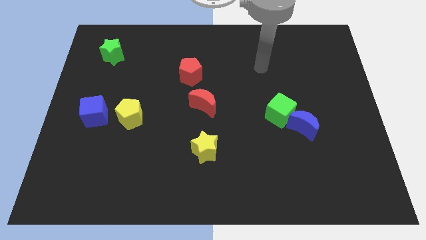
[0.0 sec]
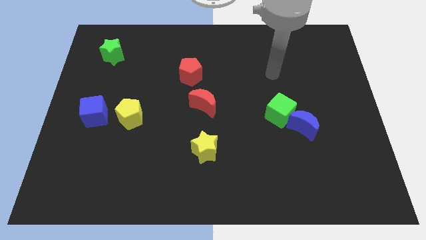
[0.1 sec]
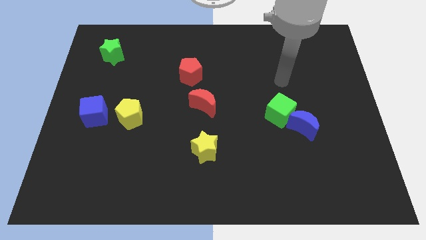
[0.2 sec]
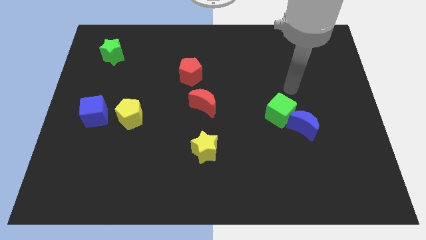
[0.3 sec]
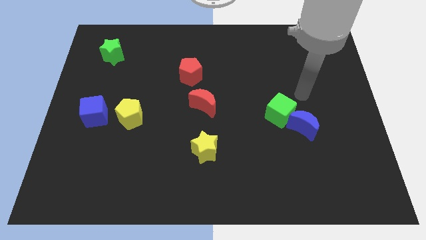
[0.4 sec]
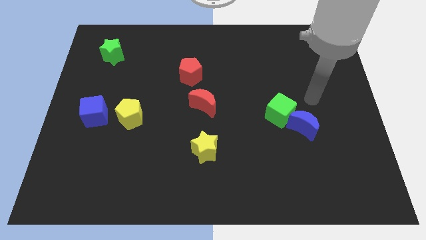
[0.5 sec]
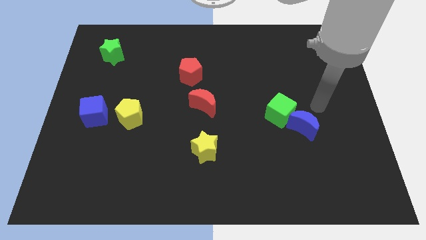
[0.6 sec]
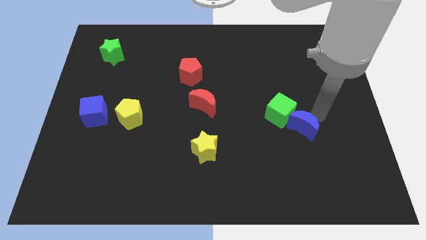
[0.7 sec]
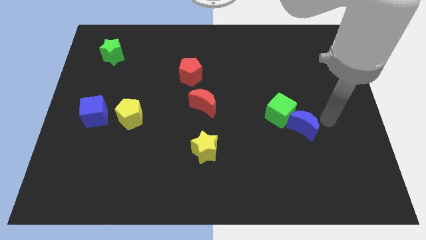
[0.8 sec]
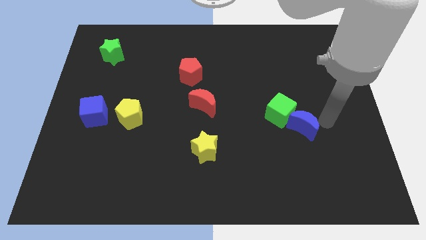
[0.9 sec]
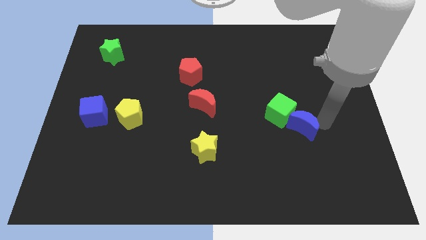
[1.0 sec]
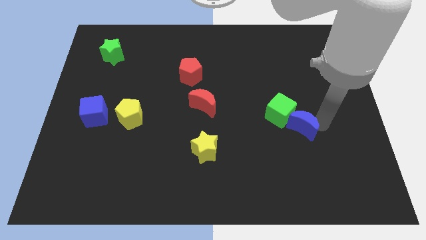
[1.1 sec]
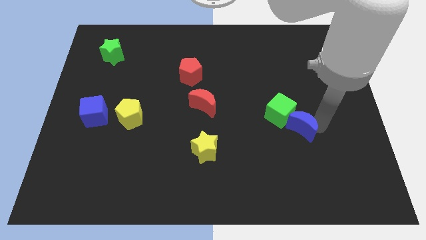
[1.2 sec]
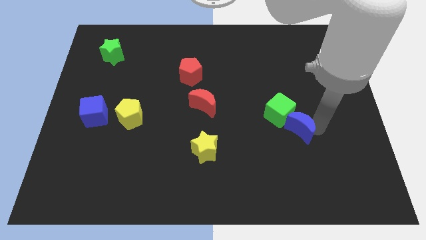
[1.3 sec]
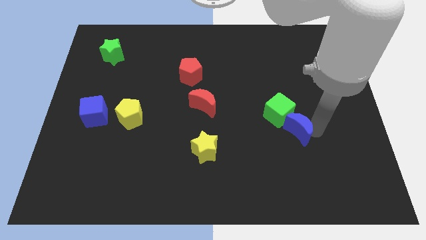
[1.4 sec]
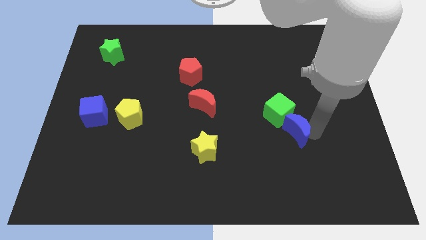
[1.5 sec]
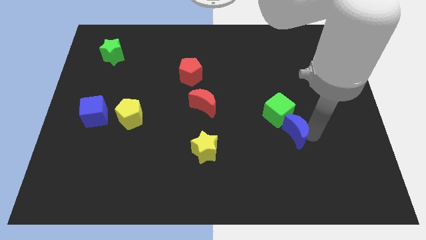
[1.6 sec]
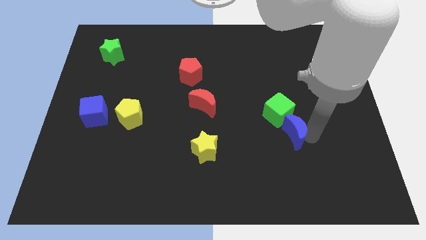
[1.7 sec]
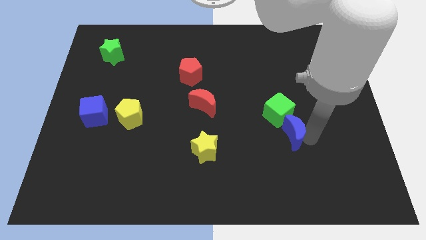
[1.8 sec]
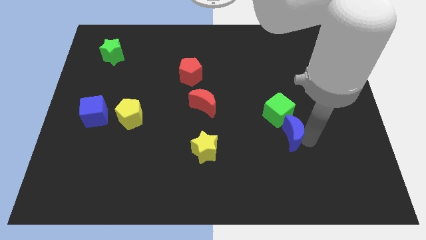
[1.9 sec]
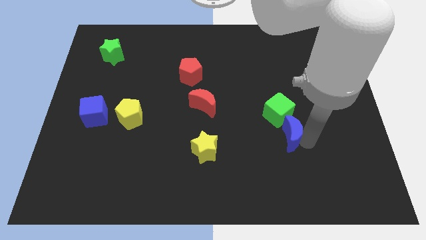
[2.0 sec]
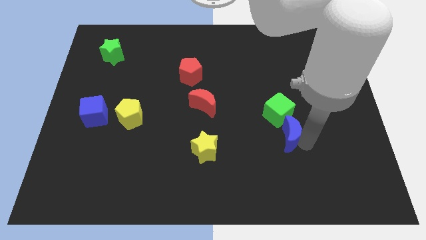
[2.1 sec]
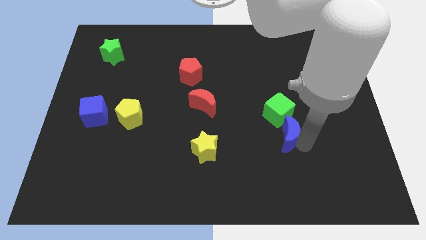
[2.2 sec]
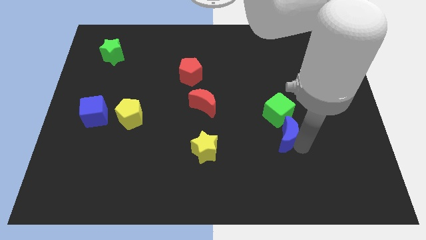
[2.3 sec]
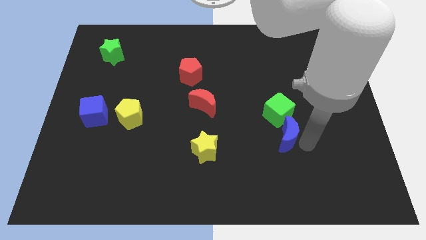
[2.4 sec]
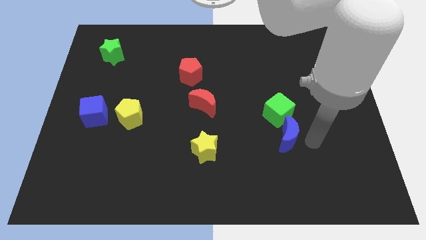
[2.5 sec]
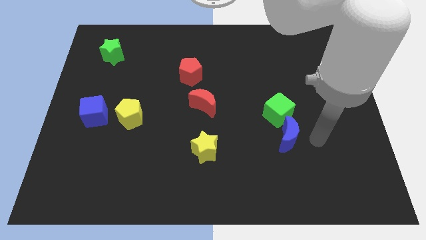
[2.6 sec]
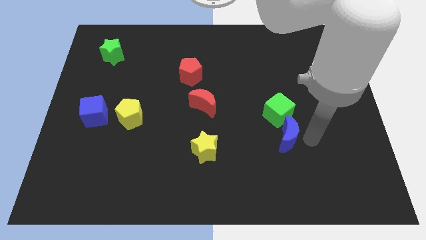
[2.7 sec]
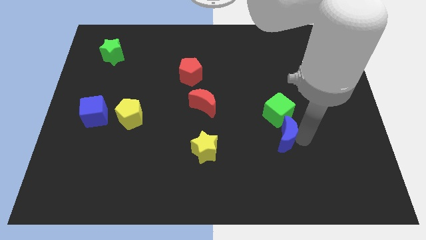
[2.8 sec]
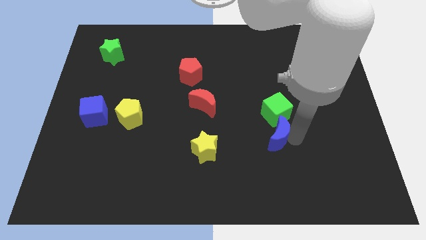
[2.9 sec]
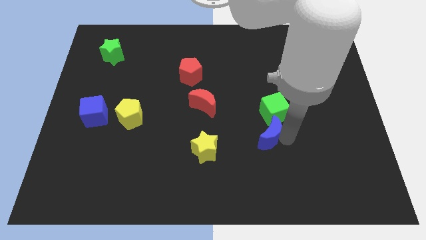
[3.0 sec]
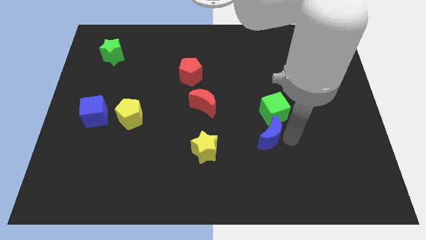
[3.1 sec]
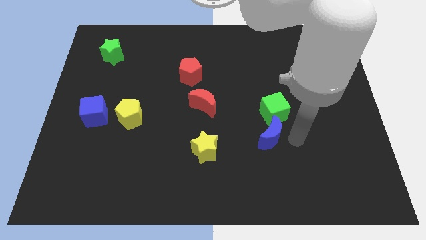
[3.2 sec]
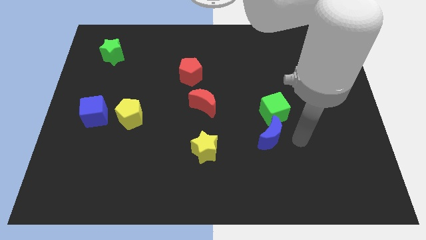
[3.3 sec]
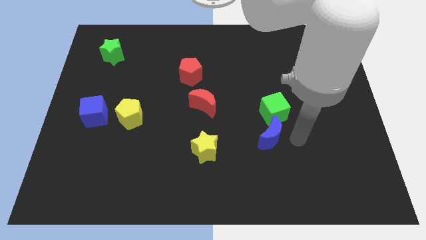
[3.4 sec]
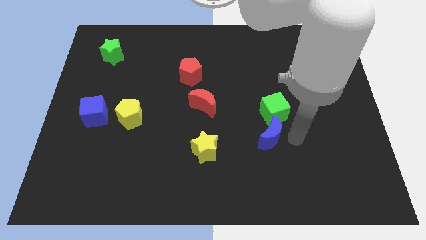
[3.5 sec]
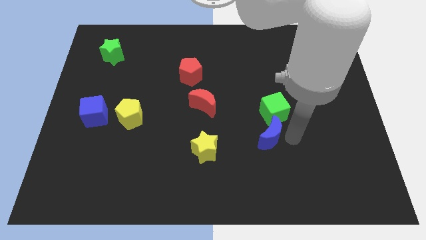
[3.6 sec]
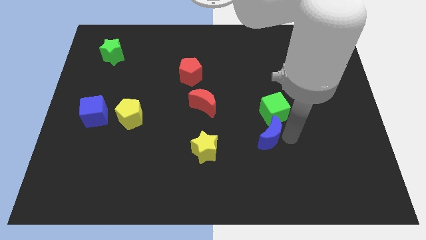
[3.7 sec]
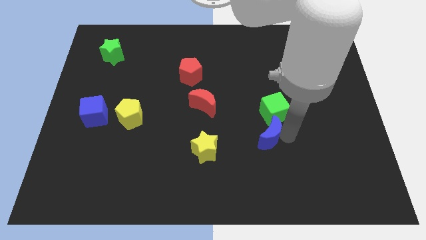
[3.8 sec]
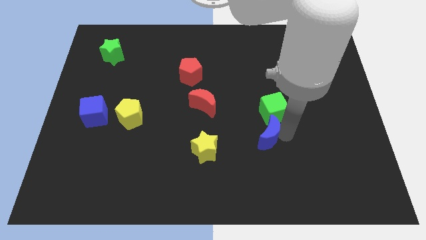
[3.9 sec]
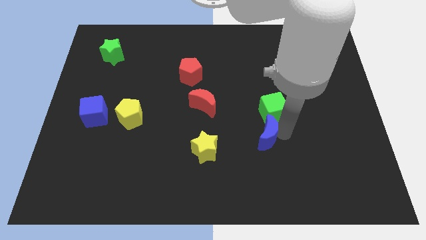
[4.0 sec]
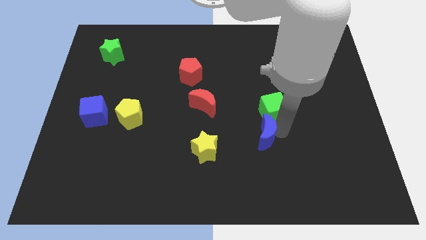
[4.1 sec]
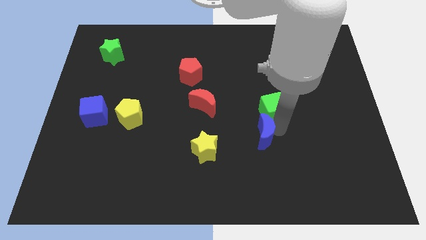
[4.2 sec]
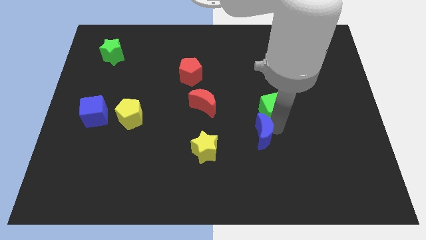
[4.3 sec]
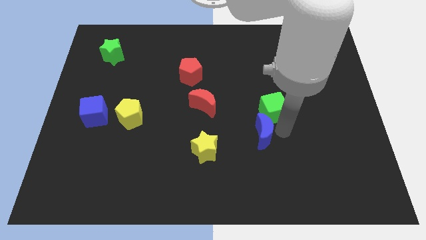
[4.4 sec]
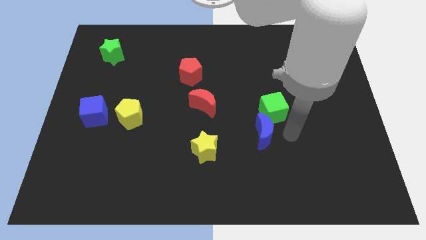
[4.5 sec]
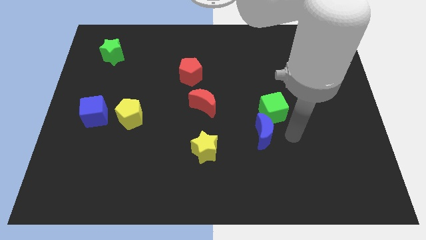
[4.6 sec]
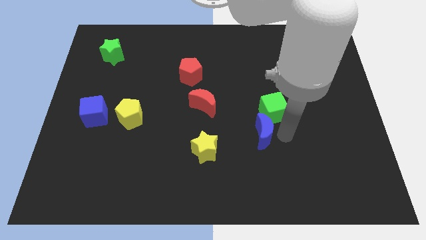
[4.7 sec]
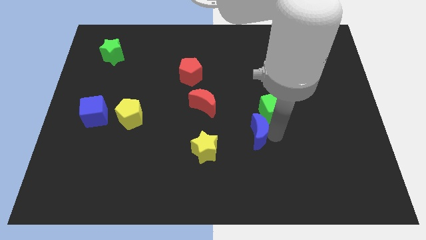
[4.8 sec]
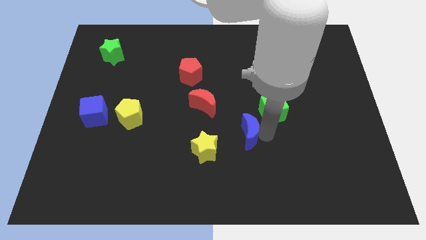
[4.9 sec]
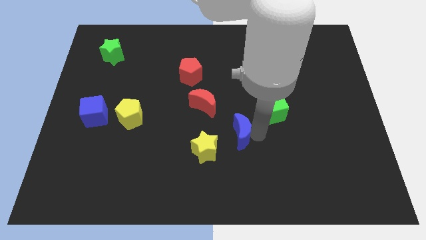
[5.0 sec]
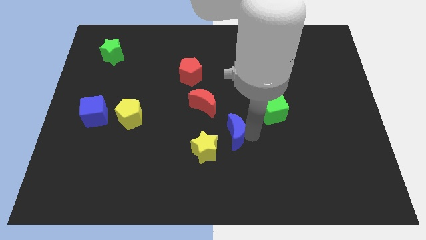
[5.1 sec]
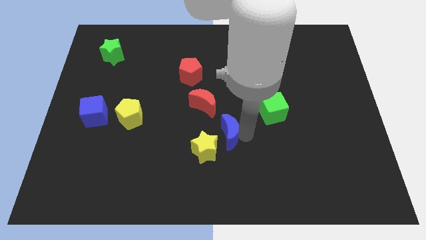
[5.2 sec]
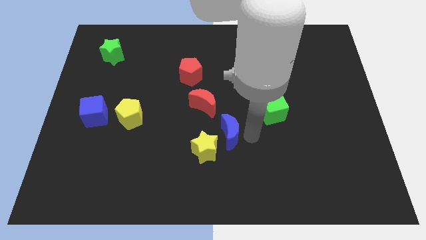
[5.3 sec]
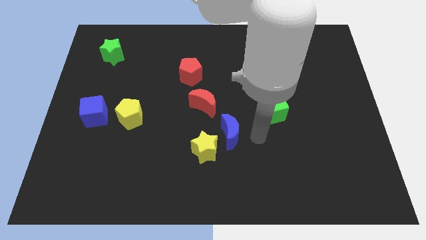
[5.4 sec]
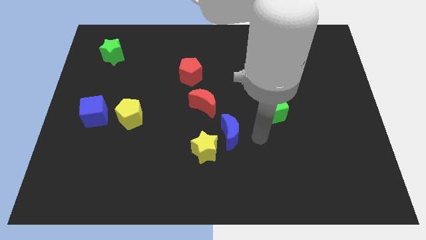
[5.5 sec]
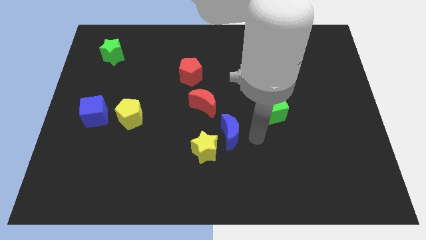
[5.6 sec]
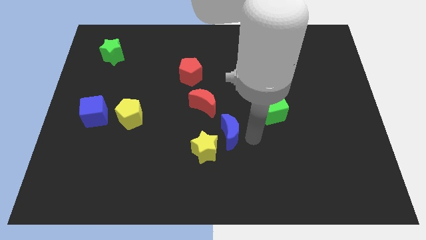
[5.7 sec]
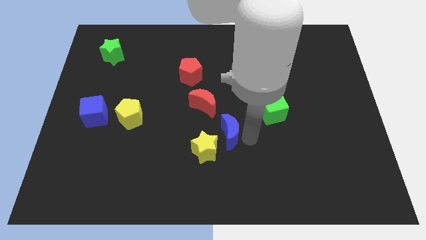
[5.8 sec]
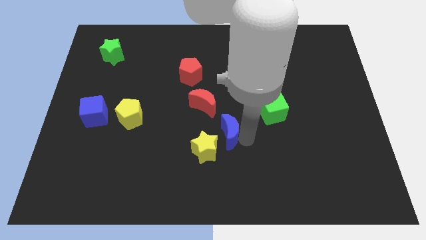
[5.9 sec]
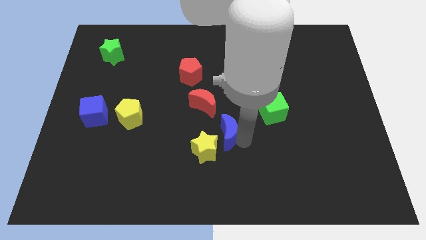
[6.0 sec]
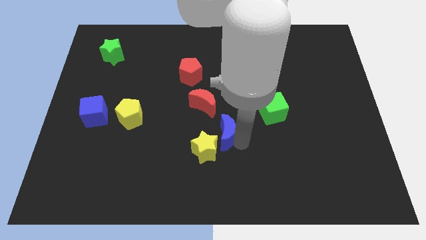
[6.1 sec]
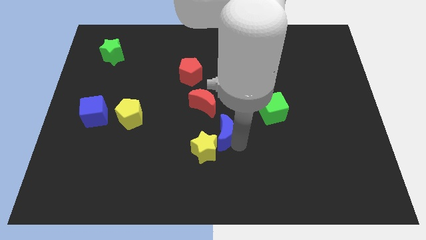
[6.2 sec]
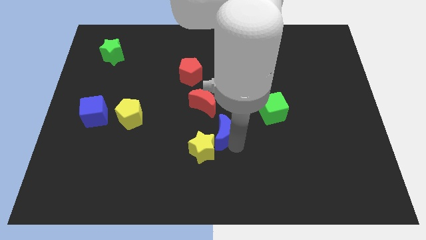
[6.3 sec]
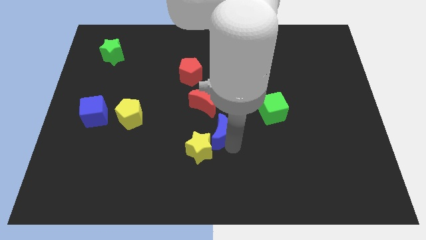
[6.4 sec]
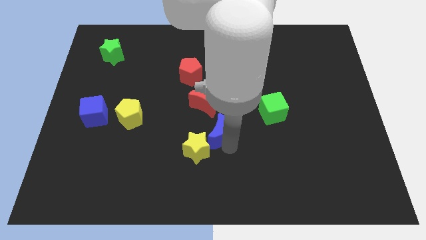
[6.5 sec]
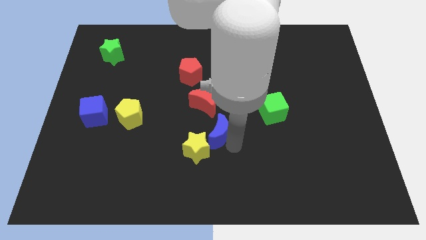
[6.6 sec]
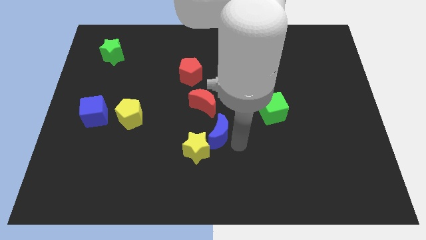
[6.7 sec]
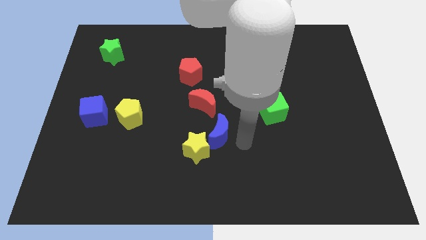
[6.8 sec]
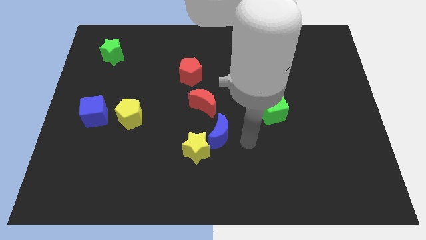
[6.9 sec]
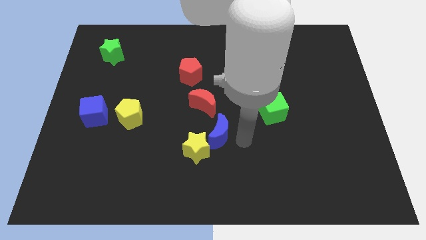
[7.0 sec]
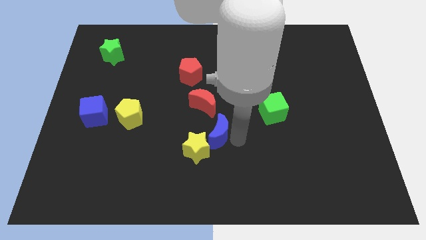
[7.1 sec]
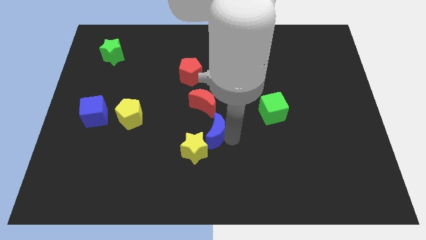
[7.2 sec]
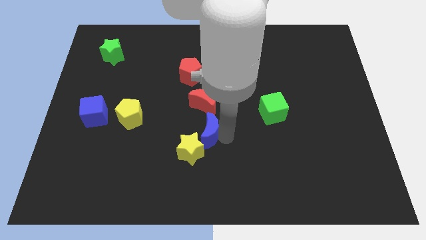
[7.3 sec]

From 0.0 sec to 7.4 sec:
push the blue moon left

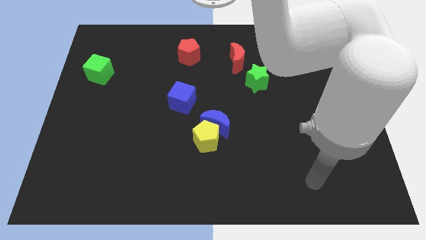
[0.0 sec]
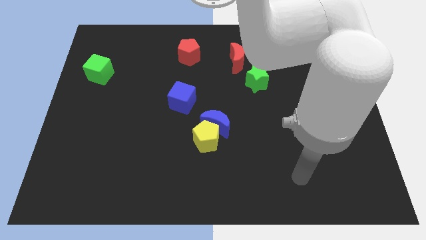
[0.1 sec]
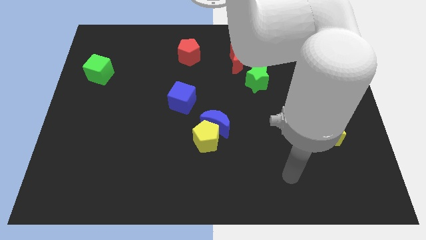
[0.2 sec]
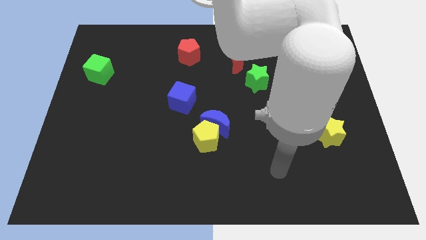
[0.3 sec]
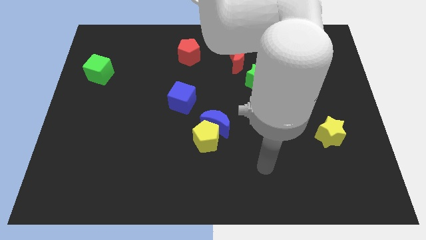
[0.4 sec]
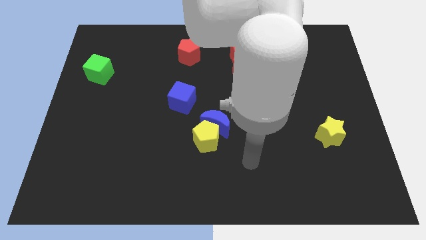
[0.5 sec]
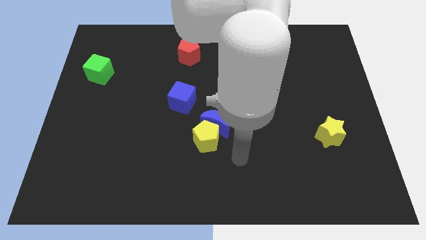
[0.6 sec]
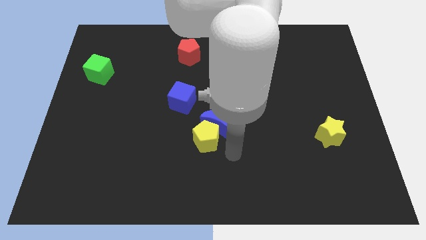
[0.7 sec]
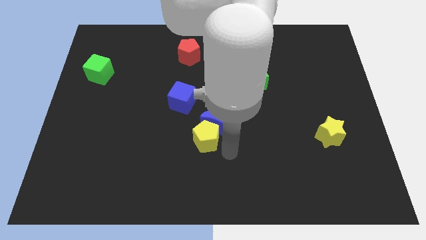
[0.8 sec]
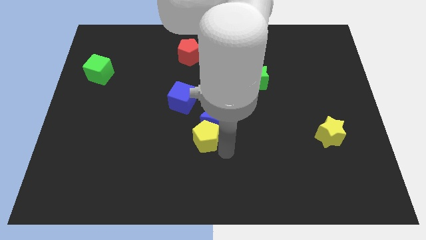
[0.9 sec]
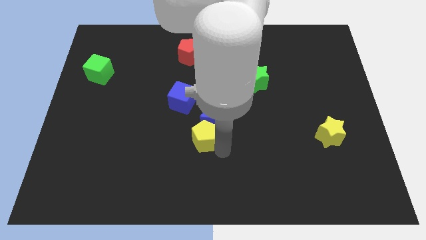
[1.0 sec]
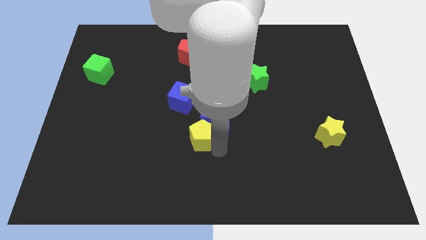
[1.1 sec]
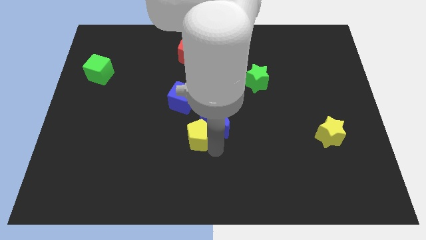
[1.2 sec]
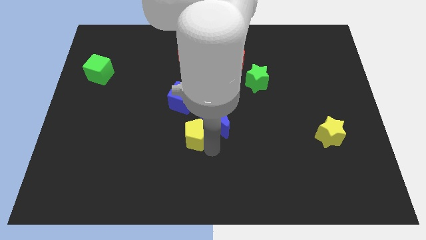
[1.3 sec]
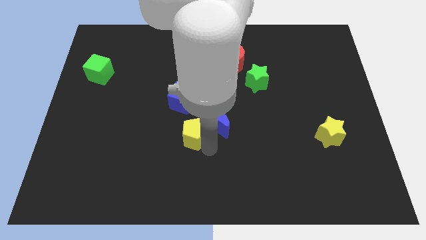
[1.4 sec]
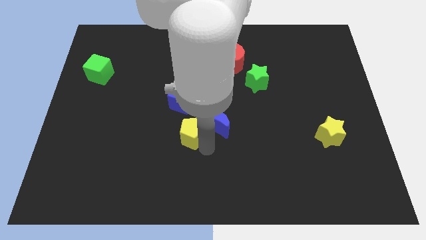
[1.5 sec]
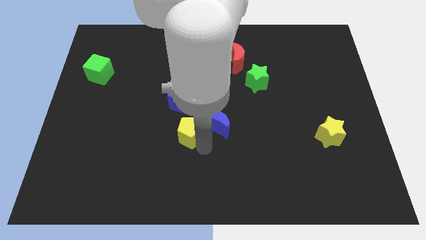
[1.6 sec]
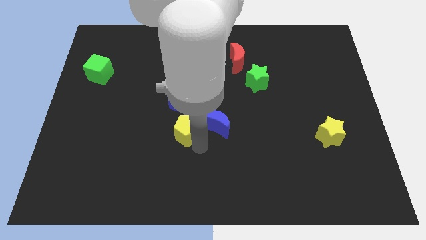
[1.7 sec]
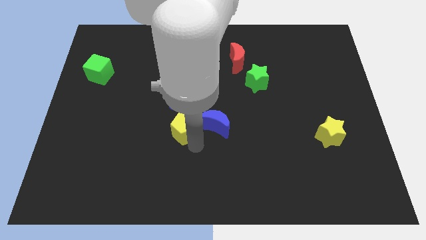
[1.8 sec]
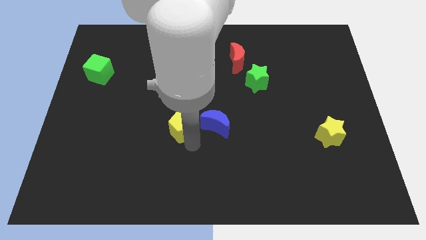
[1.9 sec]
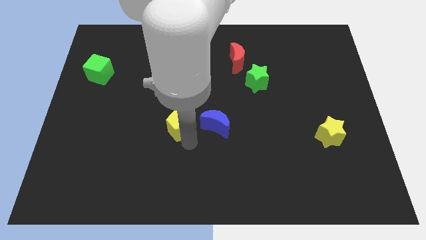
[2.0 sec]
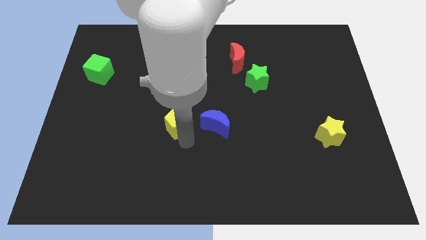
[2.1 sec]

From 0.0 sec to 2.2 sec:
slightly slide the yellow pentagon upwards and to the left diagonally
